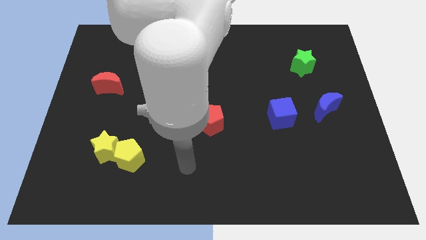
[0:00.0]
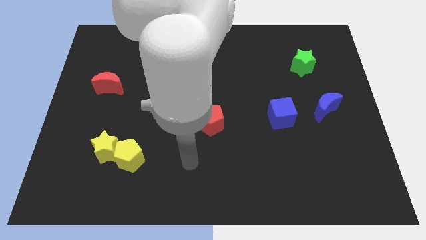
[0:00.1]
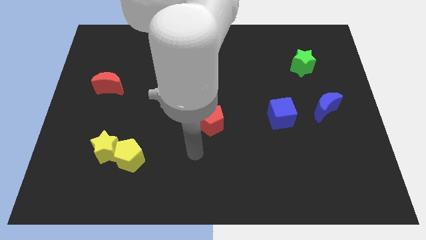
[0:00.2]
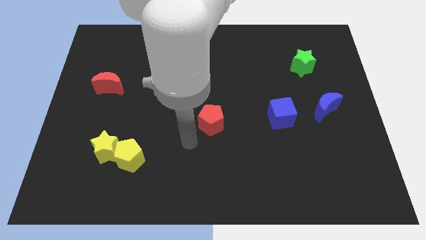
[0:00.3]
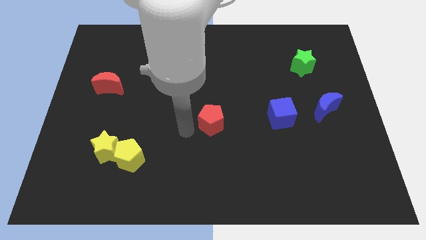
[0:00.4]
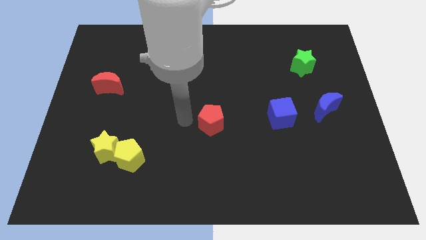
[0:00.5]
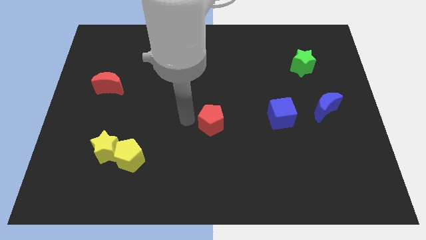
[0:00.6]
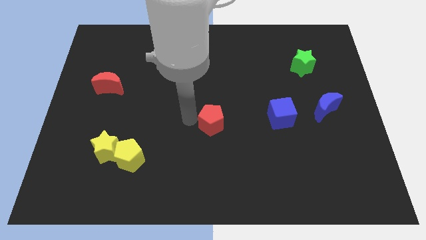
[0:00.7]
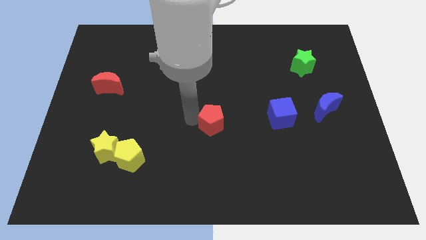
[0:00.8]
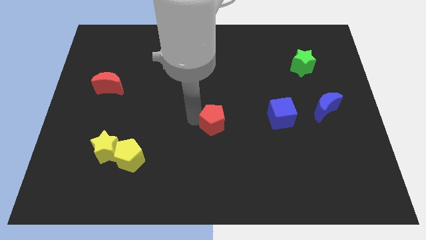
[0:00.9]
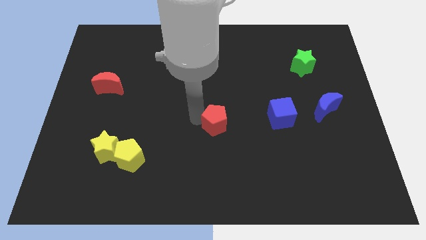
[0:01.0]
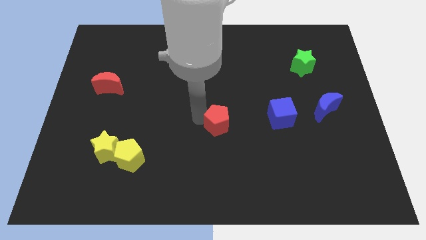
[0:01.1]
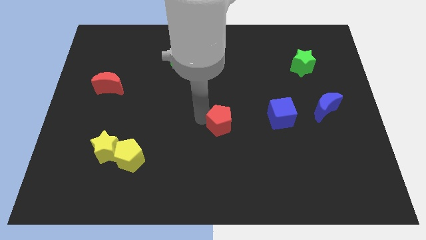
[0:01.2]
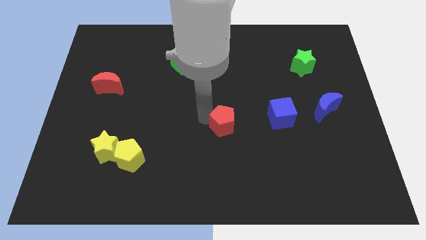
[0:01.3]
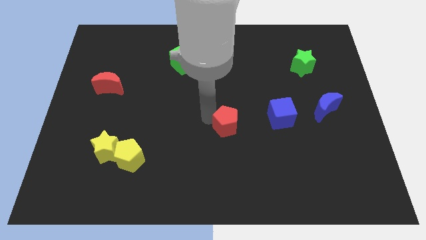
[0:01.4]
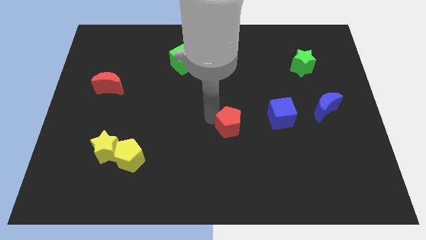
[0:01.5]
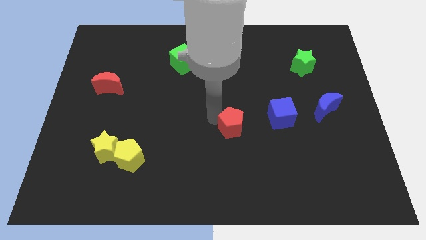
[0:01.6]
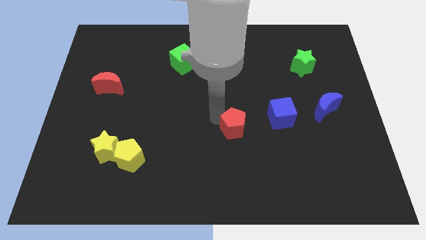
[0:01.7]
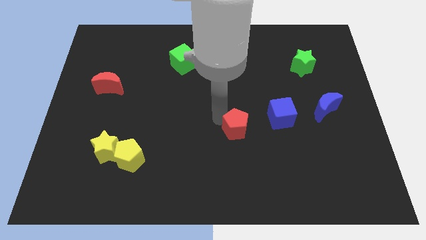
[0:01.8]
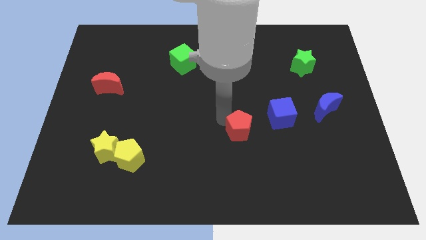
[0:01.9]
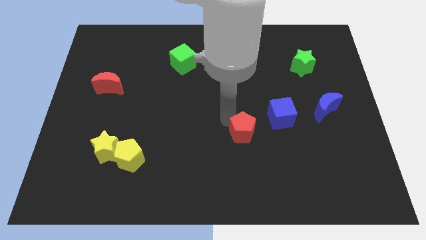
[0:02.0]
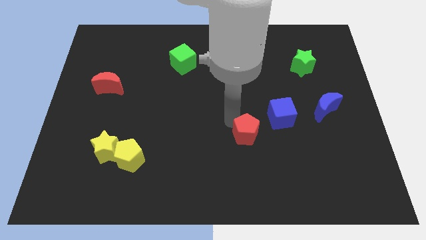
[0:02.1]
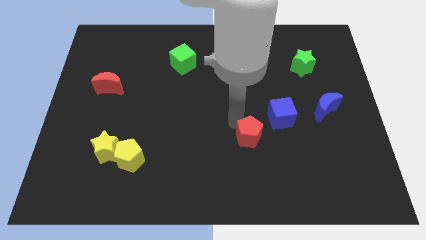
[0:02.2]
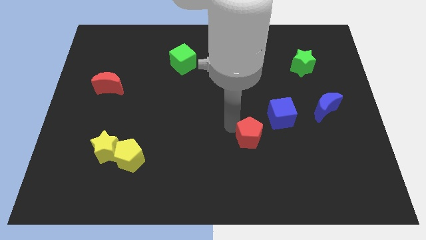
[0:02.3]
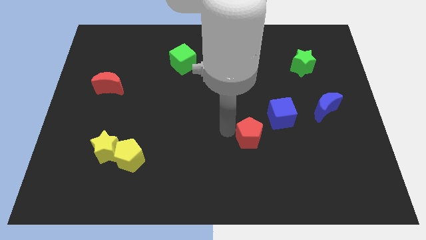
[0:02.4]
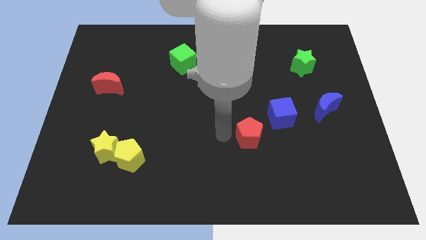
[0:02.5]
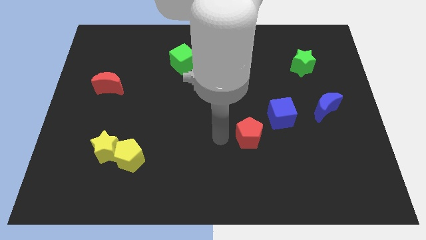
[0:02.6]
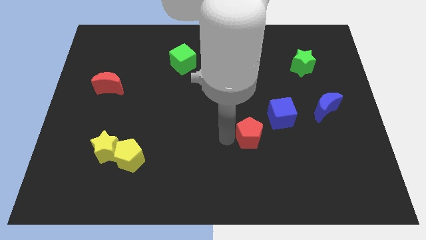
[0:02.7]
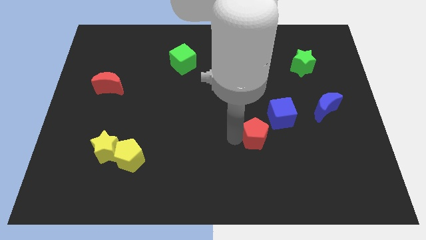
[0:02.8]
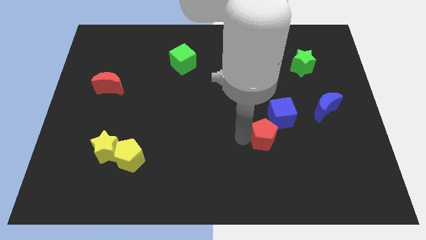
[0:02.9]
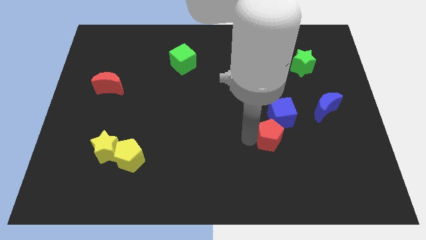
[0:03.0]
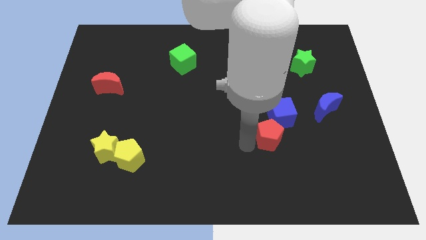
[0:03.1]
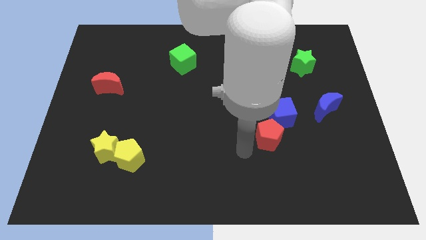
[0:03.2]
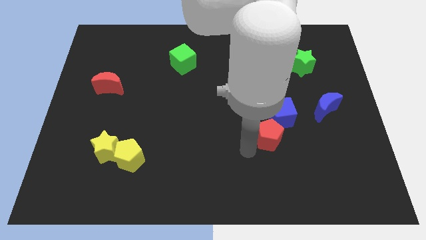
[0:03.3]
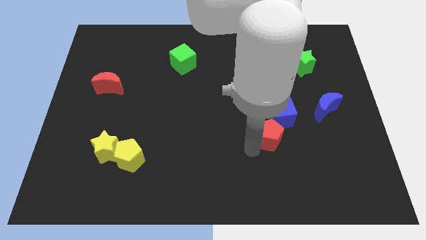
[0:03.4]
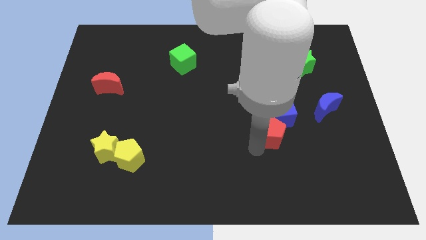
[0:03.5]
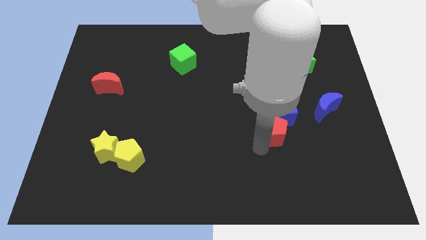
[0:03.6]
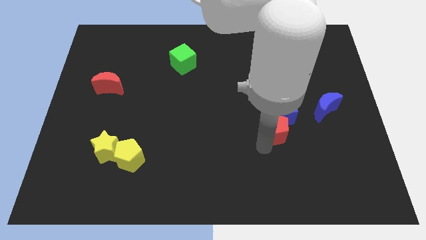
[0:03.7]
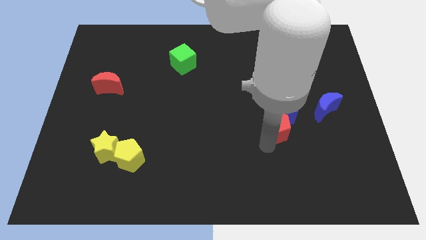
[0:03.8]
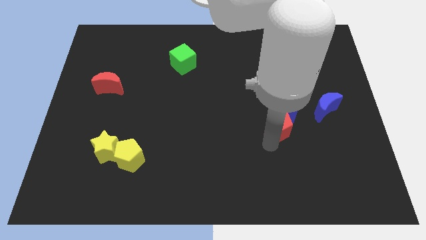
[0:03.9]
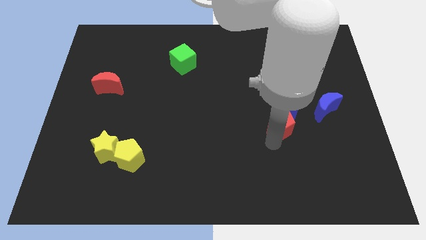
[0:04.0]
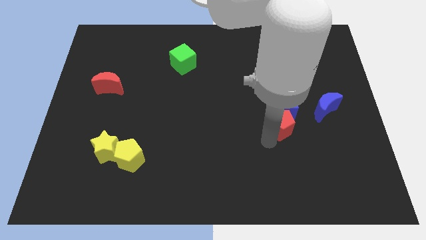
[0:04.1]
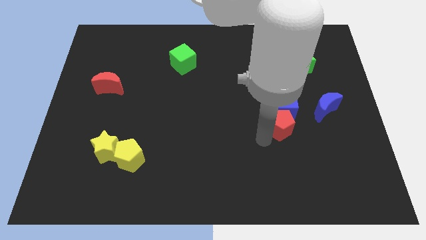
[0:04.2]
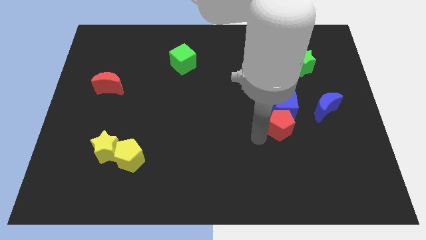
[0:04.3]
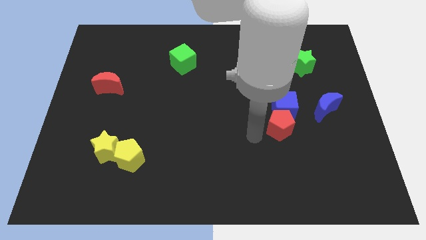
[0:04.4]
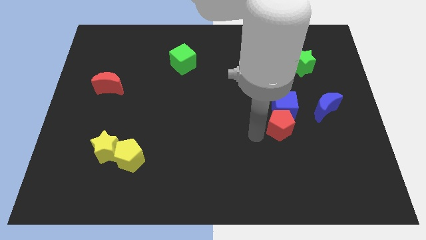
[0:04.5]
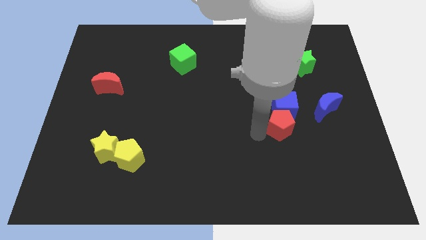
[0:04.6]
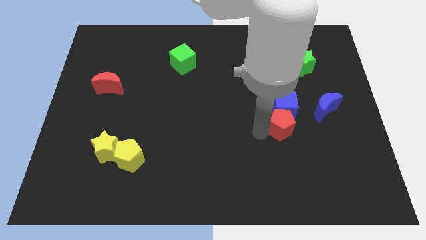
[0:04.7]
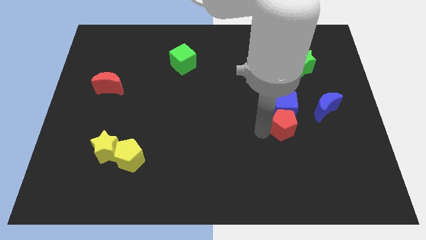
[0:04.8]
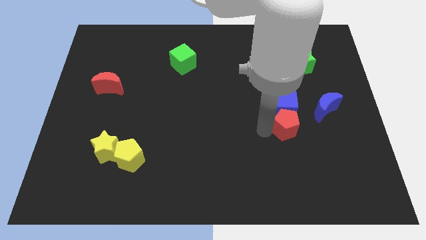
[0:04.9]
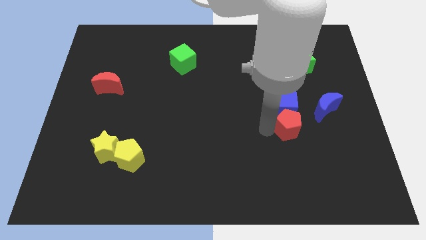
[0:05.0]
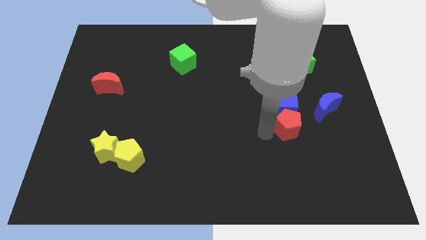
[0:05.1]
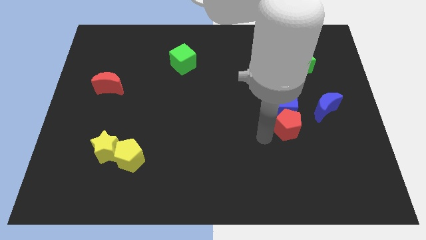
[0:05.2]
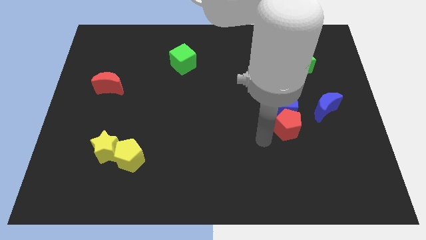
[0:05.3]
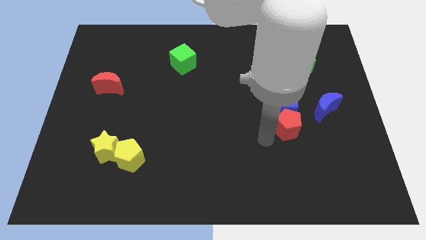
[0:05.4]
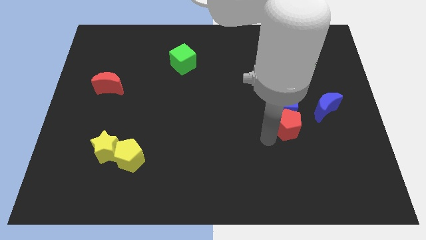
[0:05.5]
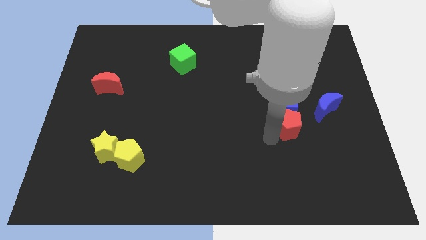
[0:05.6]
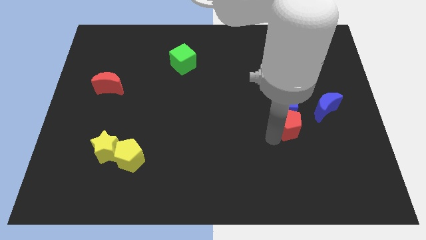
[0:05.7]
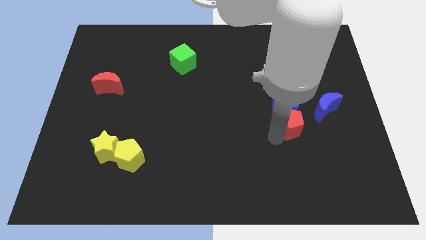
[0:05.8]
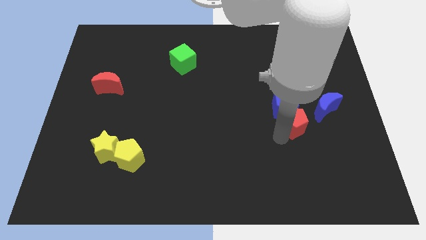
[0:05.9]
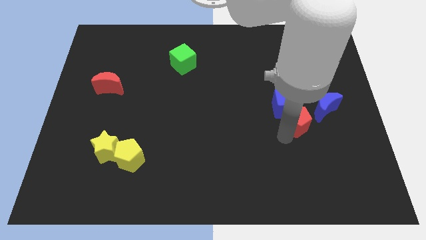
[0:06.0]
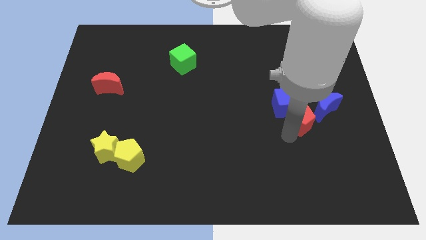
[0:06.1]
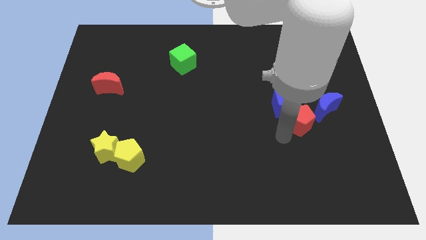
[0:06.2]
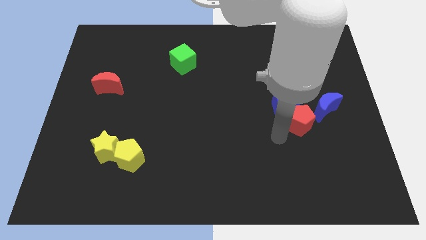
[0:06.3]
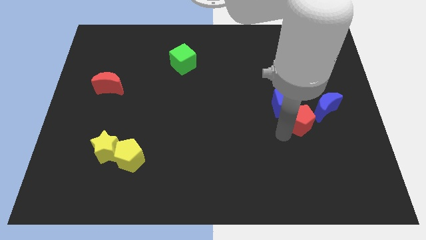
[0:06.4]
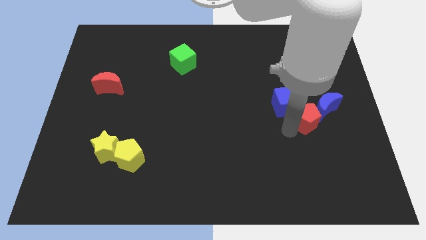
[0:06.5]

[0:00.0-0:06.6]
push the red pentagon to the blue moon

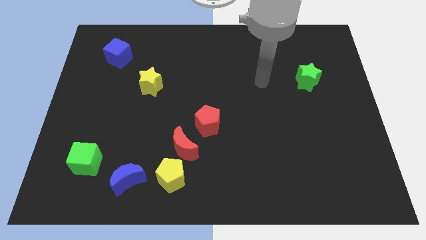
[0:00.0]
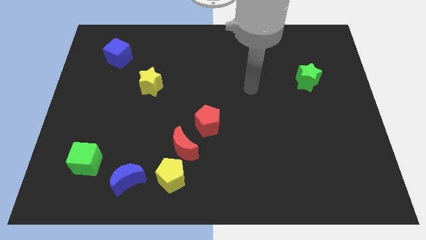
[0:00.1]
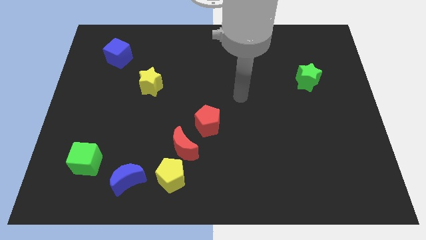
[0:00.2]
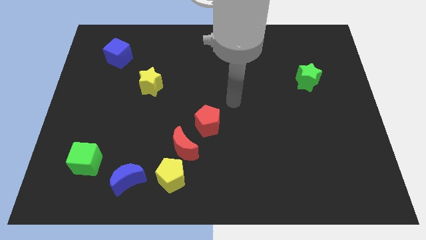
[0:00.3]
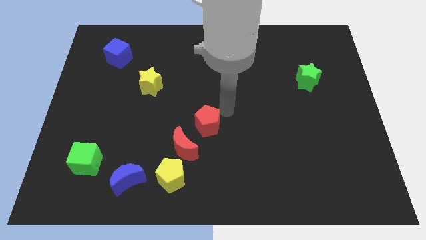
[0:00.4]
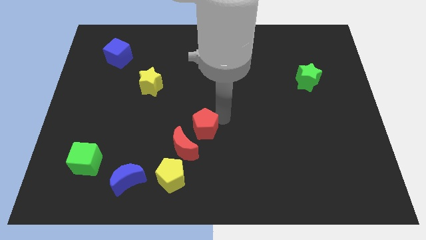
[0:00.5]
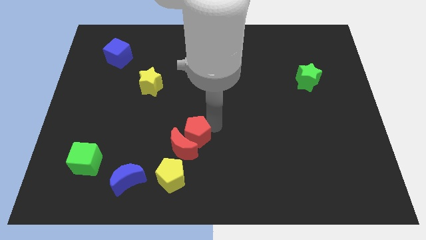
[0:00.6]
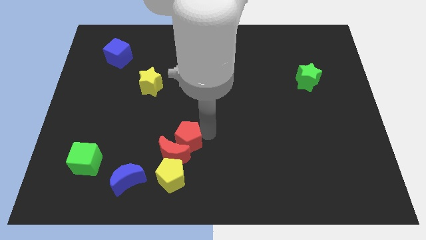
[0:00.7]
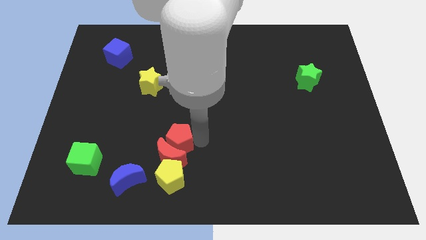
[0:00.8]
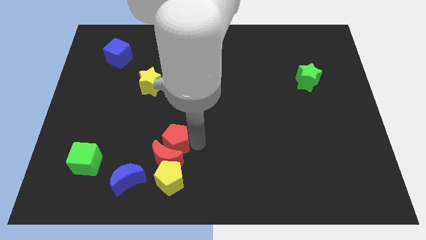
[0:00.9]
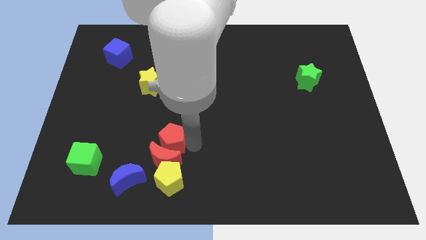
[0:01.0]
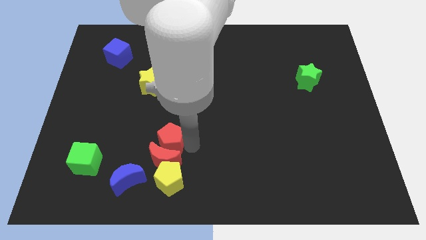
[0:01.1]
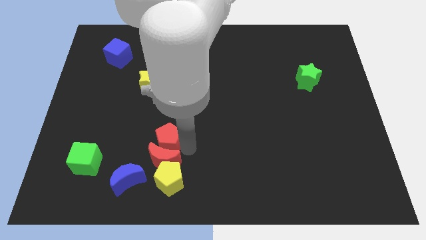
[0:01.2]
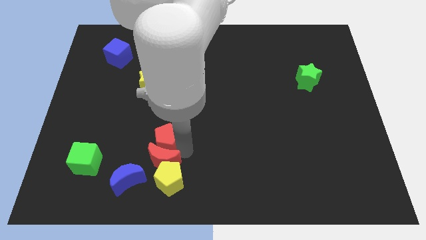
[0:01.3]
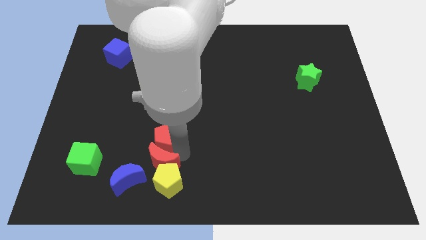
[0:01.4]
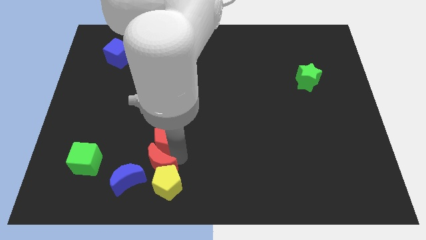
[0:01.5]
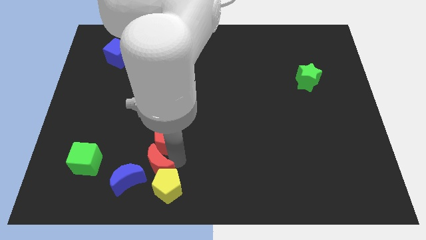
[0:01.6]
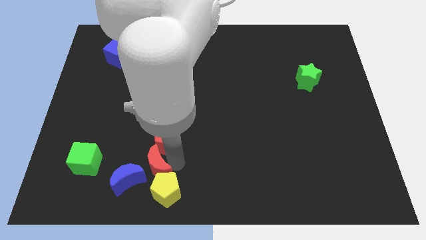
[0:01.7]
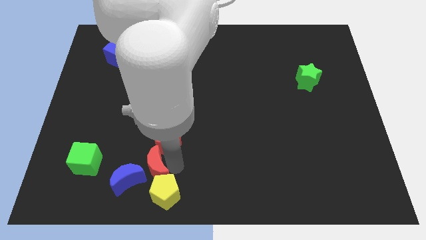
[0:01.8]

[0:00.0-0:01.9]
push the red moon next to the blue moon
